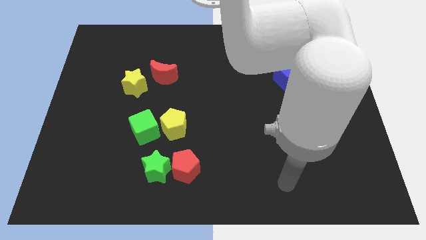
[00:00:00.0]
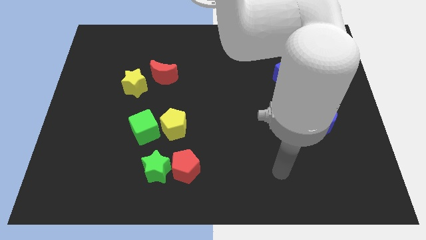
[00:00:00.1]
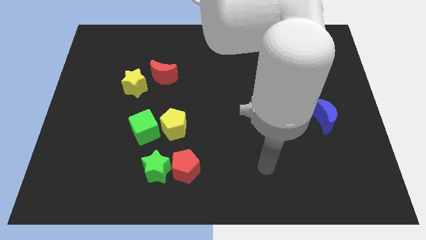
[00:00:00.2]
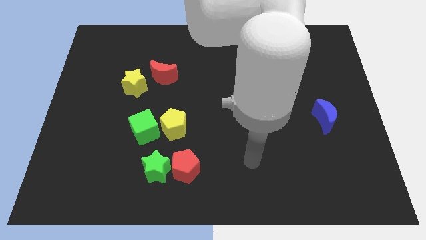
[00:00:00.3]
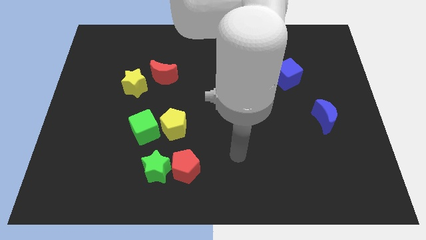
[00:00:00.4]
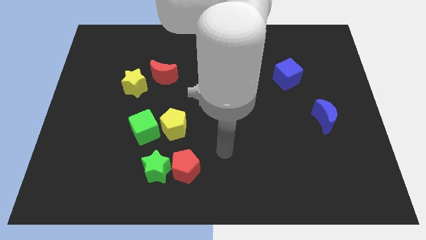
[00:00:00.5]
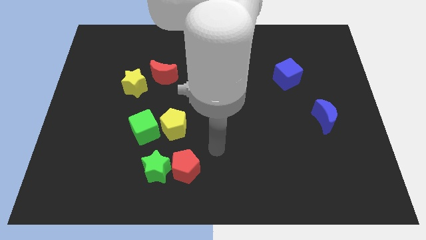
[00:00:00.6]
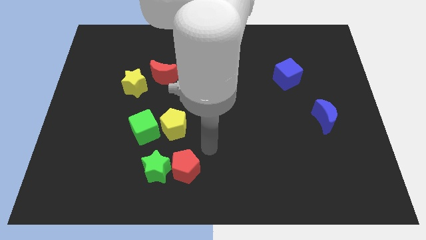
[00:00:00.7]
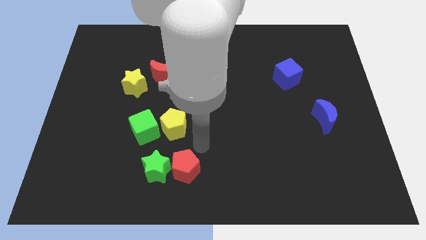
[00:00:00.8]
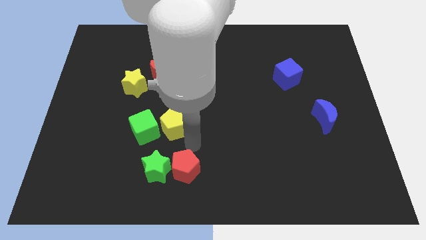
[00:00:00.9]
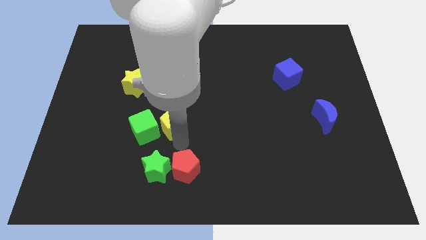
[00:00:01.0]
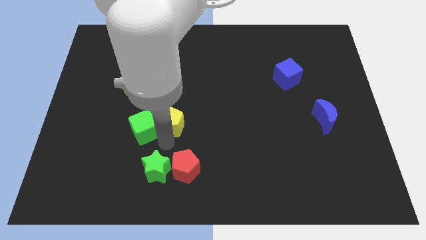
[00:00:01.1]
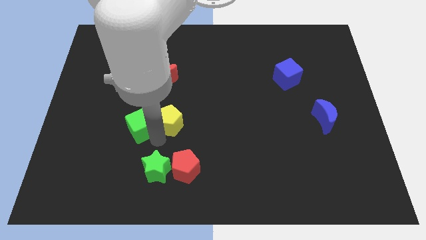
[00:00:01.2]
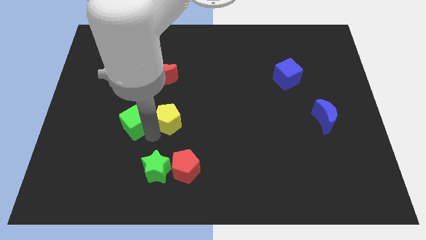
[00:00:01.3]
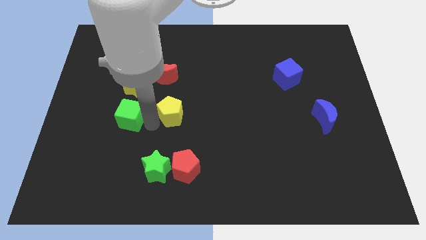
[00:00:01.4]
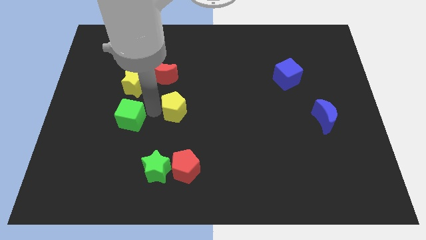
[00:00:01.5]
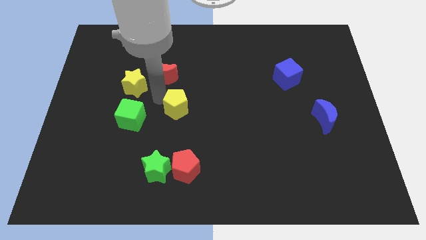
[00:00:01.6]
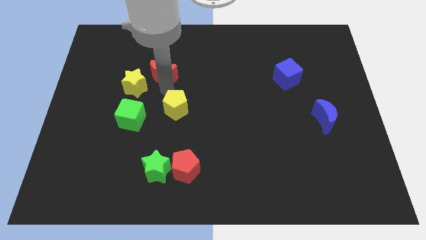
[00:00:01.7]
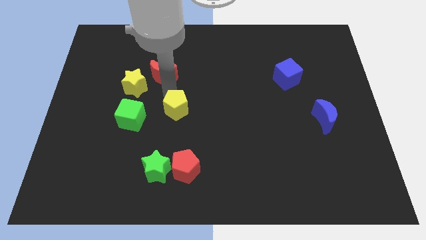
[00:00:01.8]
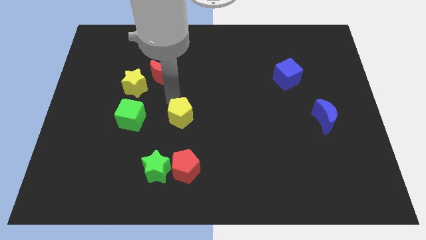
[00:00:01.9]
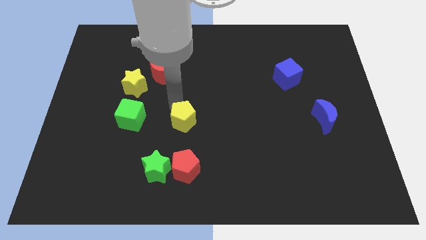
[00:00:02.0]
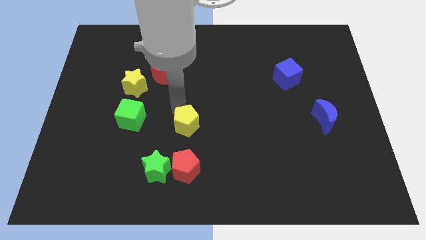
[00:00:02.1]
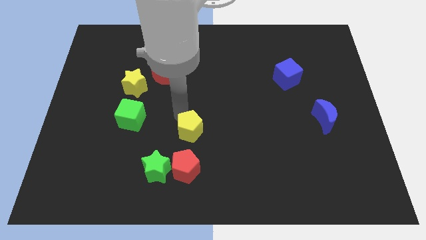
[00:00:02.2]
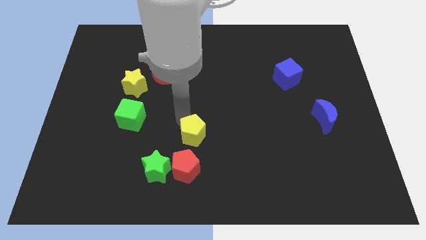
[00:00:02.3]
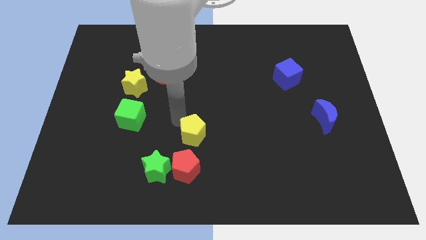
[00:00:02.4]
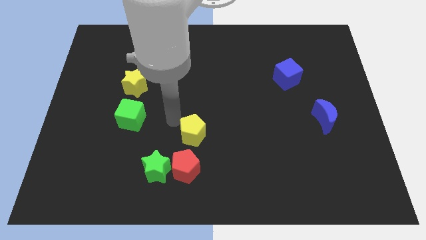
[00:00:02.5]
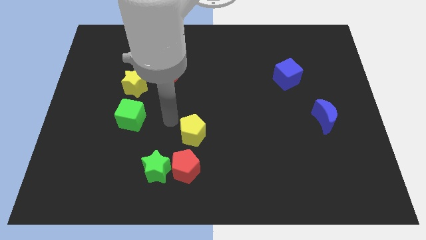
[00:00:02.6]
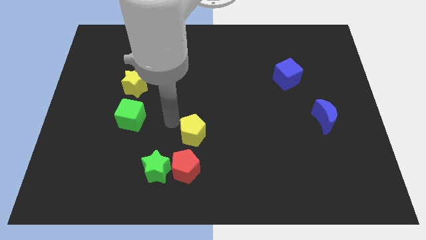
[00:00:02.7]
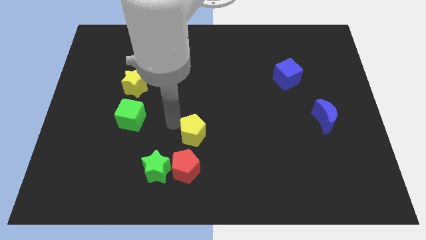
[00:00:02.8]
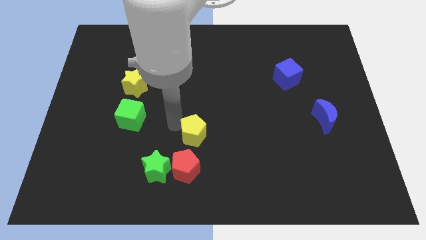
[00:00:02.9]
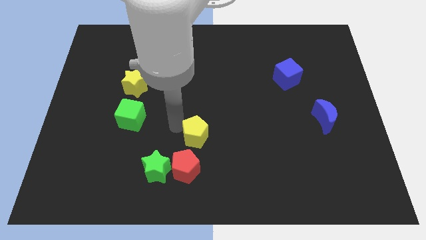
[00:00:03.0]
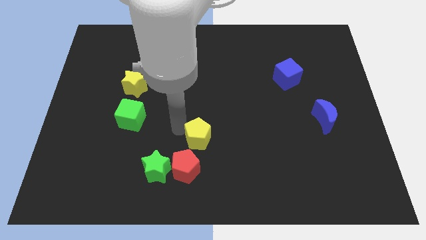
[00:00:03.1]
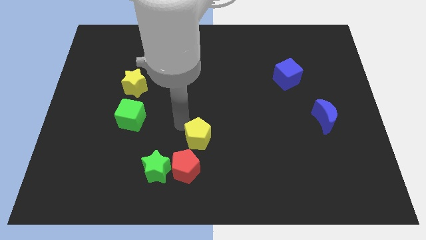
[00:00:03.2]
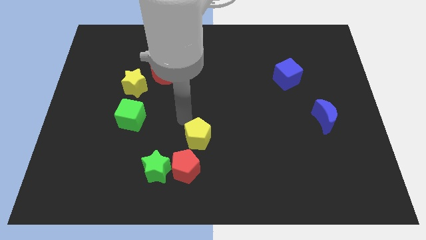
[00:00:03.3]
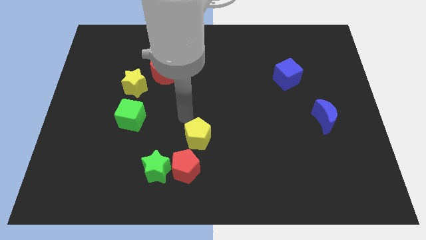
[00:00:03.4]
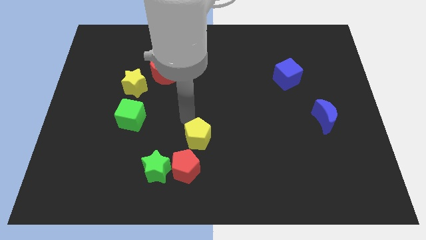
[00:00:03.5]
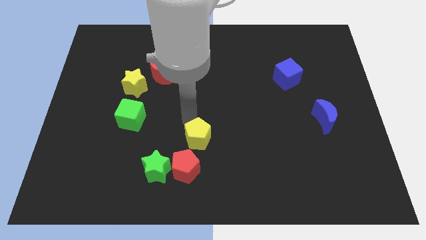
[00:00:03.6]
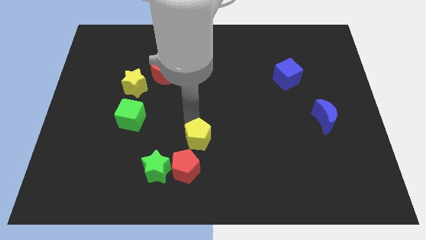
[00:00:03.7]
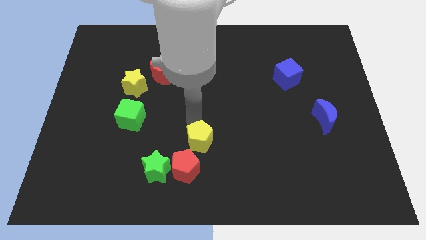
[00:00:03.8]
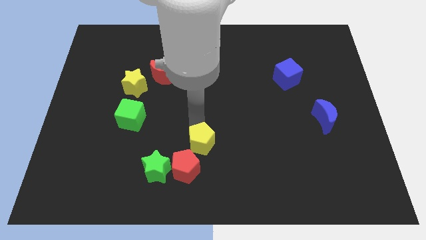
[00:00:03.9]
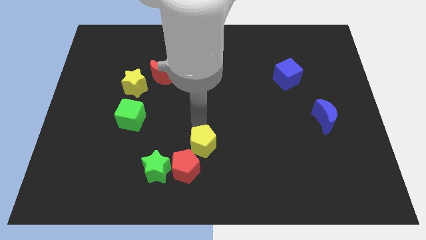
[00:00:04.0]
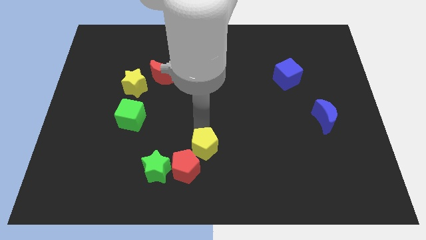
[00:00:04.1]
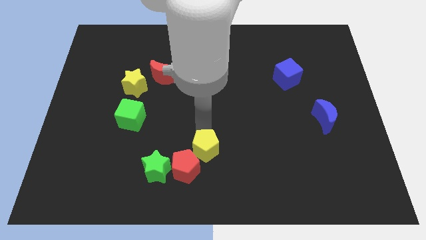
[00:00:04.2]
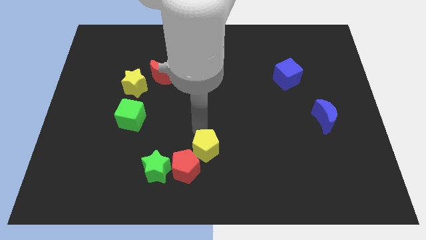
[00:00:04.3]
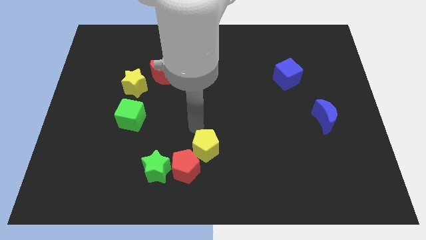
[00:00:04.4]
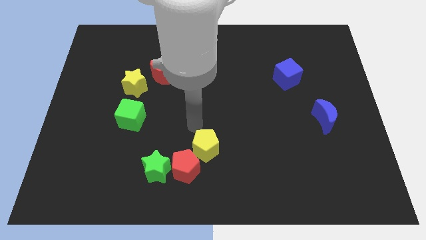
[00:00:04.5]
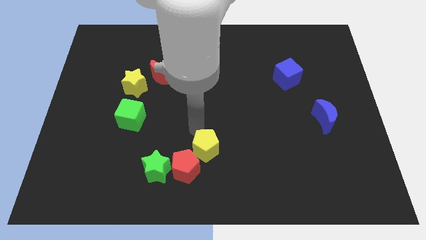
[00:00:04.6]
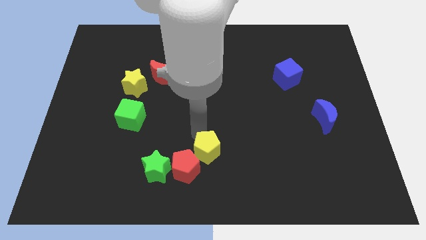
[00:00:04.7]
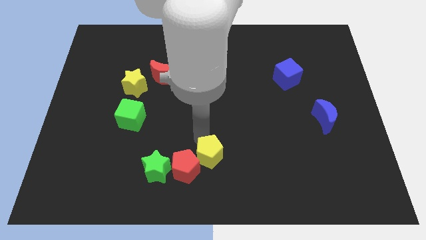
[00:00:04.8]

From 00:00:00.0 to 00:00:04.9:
push the yellow pentagon to the bottom side

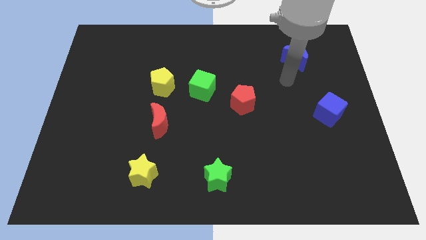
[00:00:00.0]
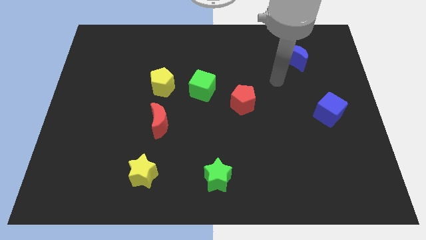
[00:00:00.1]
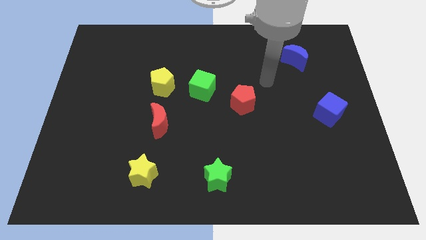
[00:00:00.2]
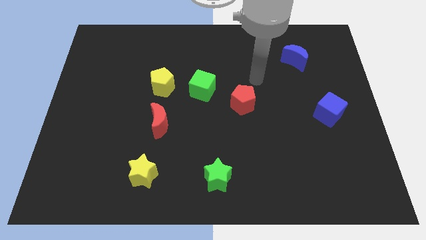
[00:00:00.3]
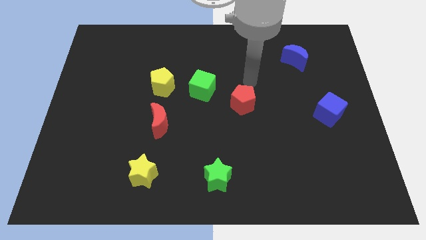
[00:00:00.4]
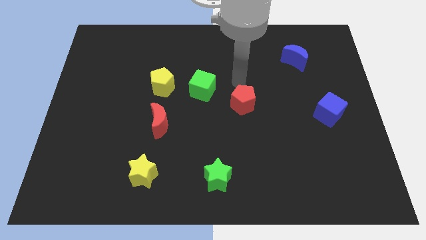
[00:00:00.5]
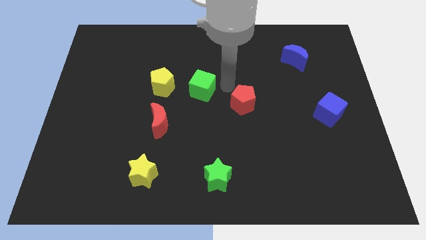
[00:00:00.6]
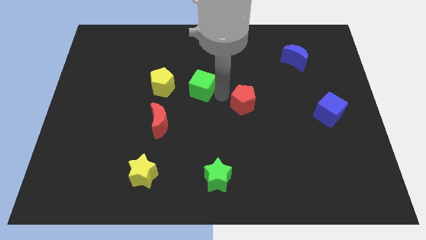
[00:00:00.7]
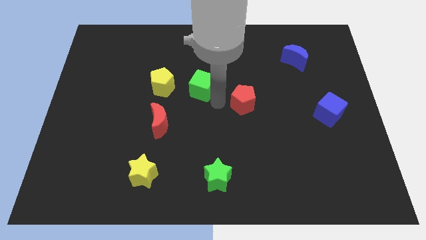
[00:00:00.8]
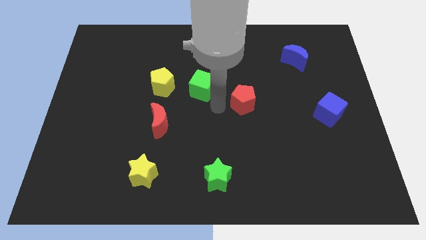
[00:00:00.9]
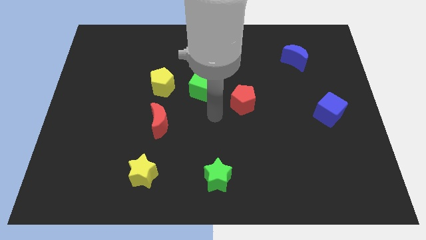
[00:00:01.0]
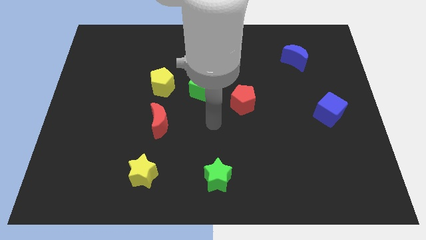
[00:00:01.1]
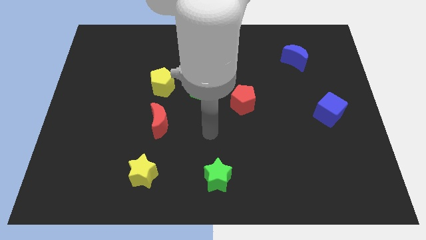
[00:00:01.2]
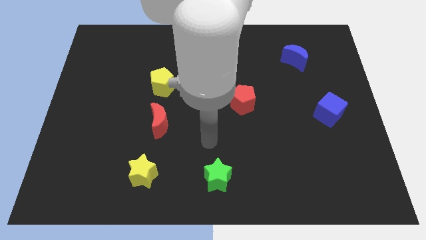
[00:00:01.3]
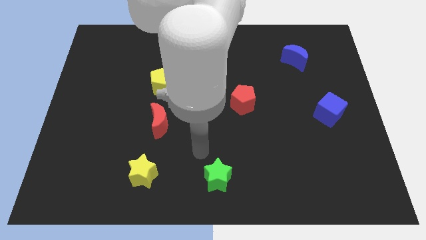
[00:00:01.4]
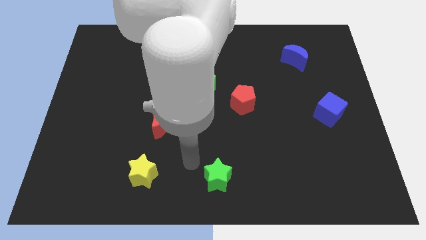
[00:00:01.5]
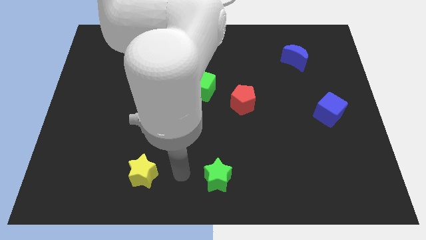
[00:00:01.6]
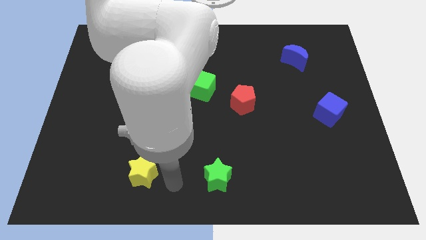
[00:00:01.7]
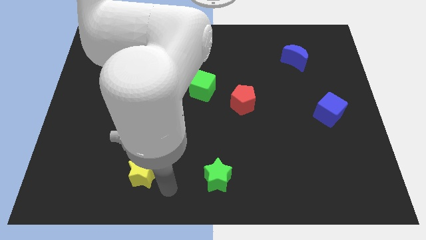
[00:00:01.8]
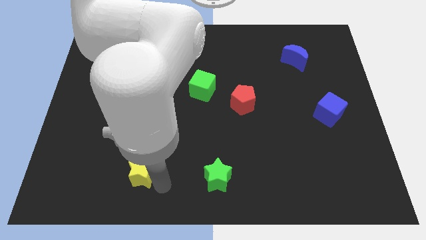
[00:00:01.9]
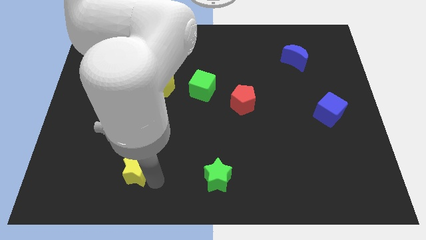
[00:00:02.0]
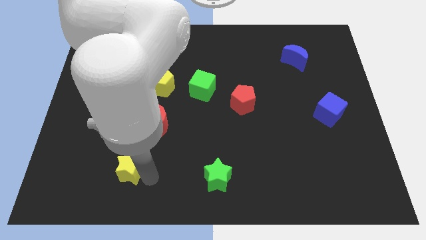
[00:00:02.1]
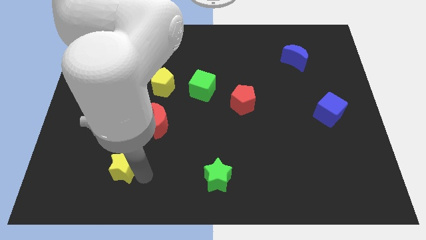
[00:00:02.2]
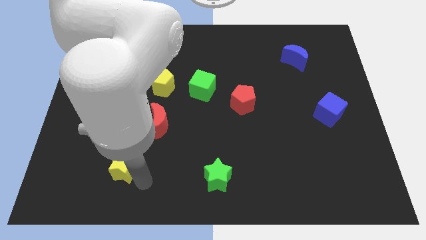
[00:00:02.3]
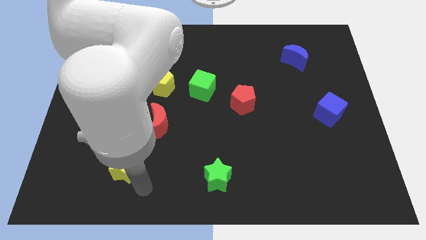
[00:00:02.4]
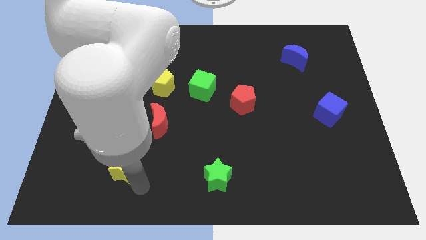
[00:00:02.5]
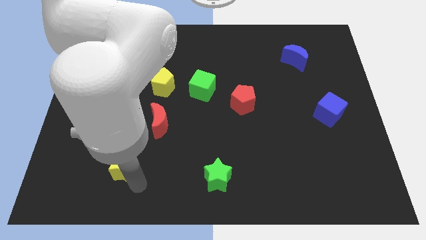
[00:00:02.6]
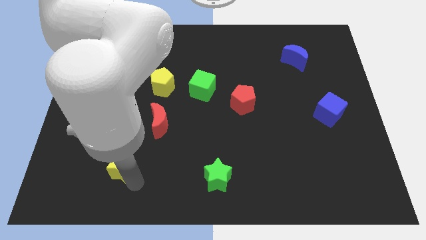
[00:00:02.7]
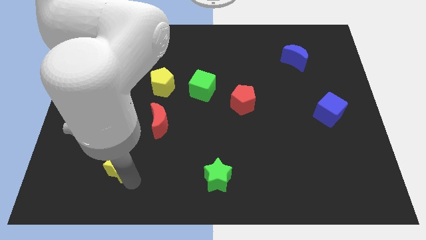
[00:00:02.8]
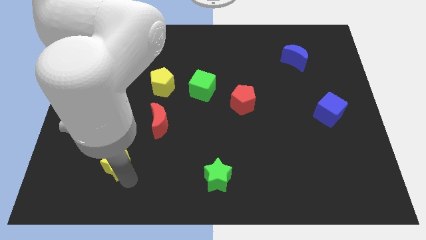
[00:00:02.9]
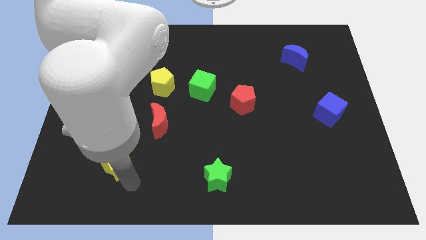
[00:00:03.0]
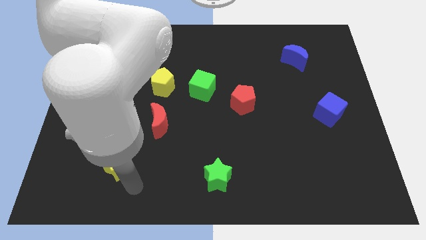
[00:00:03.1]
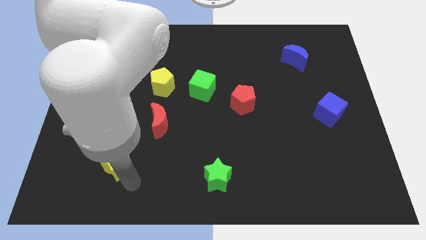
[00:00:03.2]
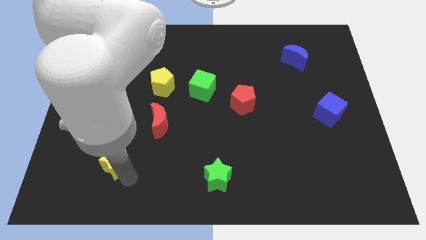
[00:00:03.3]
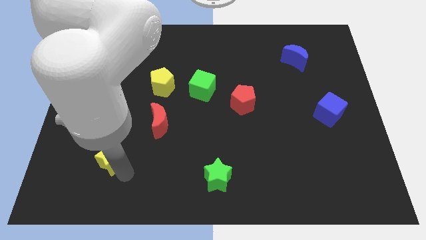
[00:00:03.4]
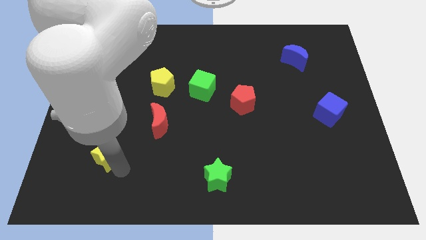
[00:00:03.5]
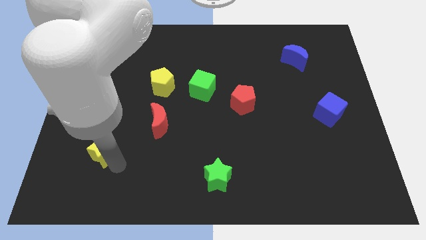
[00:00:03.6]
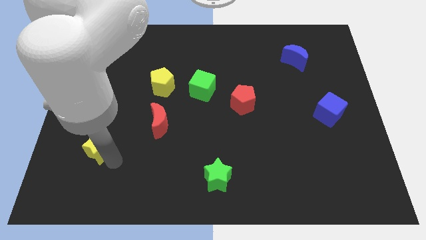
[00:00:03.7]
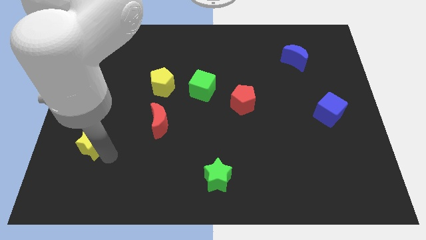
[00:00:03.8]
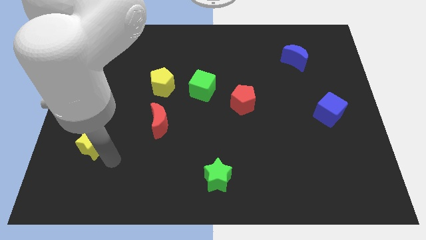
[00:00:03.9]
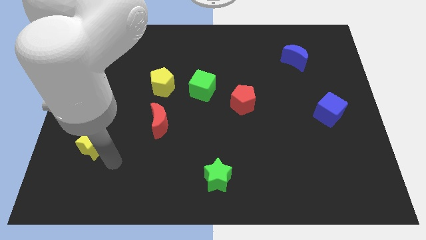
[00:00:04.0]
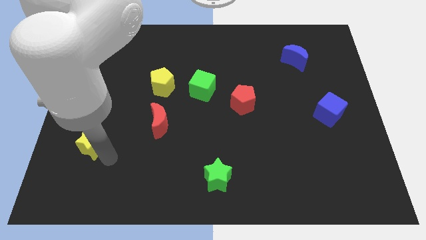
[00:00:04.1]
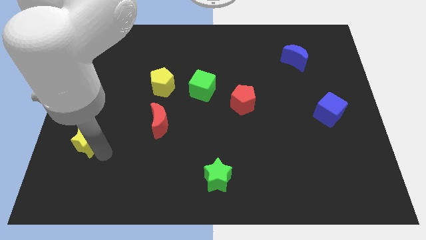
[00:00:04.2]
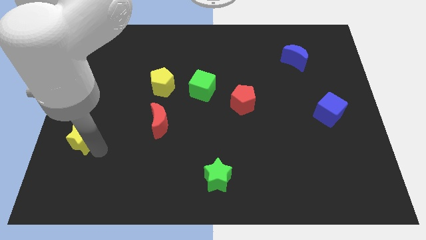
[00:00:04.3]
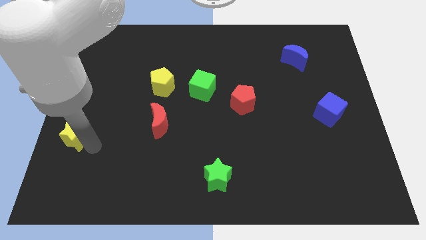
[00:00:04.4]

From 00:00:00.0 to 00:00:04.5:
slide the yellow star to the left side of the board
